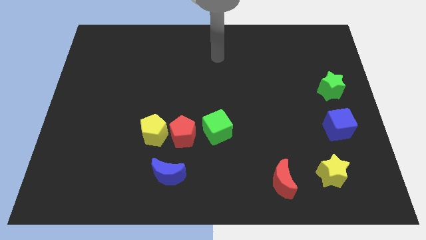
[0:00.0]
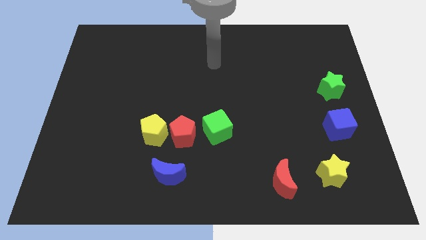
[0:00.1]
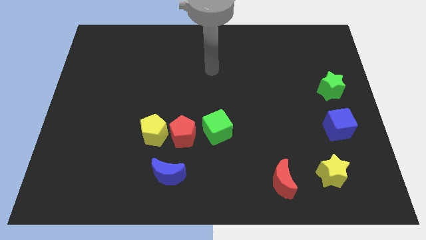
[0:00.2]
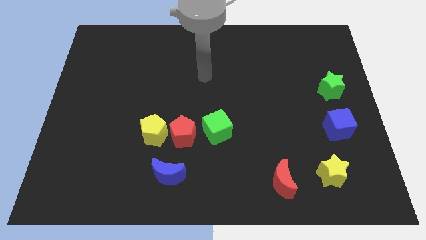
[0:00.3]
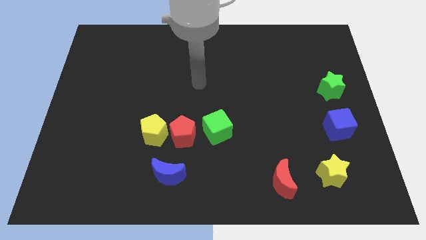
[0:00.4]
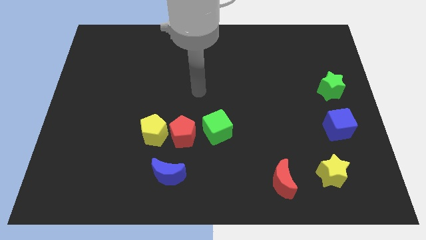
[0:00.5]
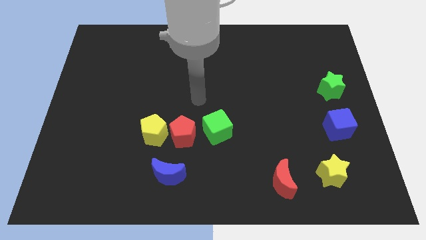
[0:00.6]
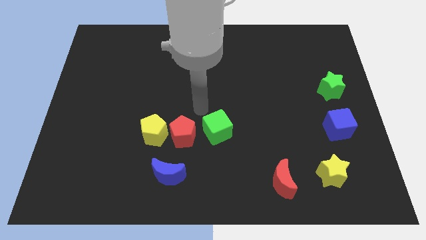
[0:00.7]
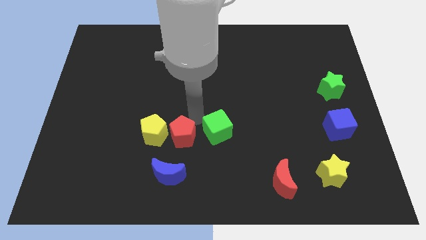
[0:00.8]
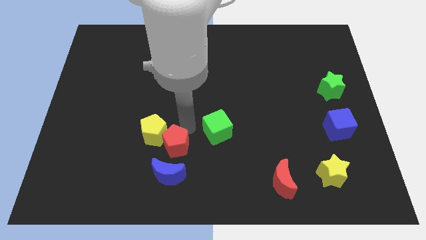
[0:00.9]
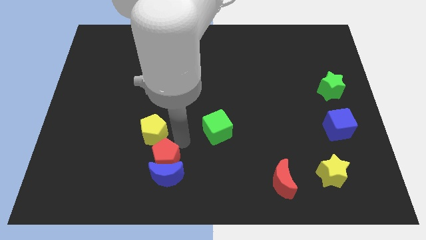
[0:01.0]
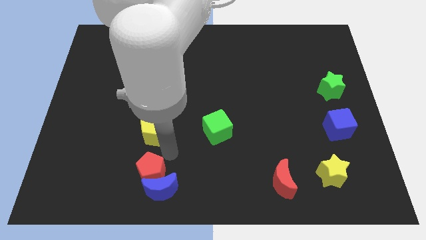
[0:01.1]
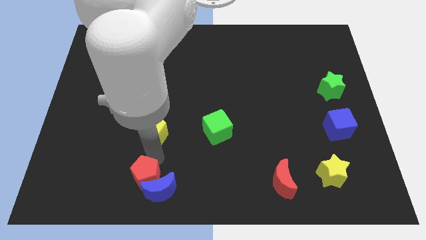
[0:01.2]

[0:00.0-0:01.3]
pull the yellow pentagon apart from the red pentagon

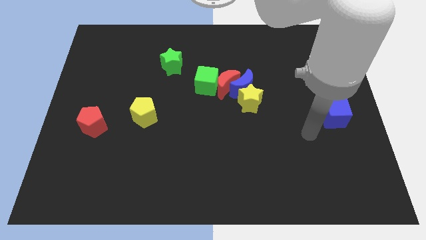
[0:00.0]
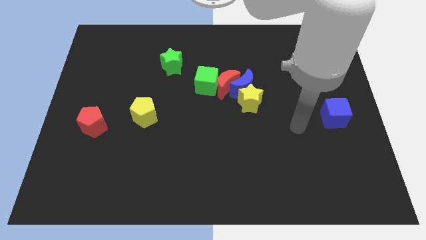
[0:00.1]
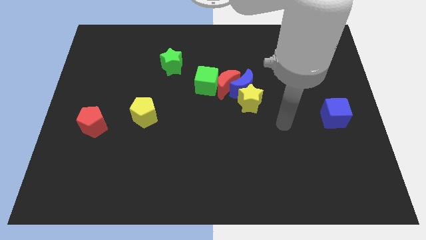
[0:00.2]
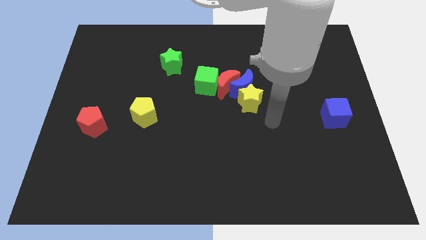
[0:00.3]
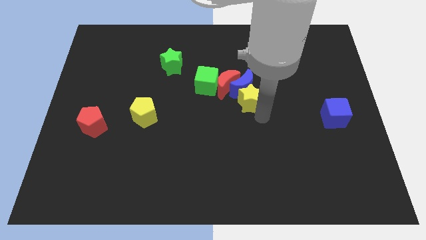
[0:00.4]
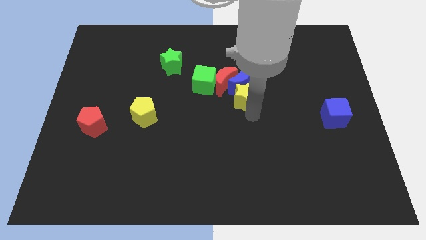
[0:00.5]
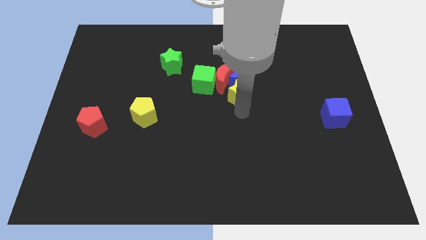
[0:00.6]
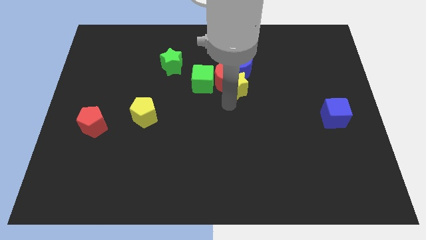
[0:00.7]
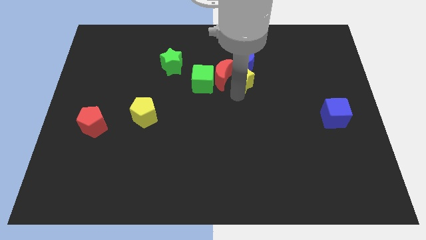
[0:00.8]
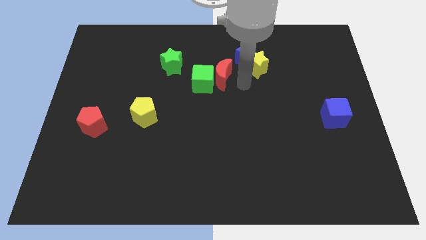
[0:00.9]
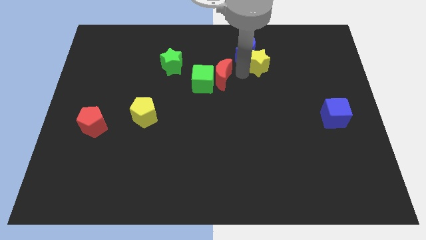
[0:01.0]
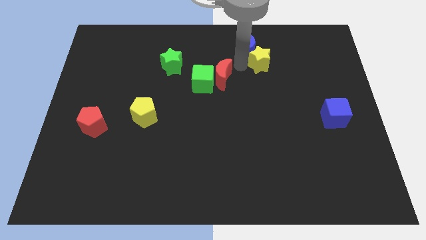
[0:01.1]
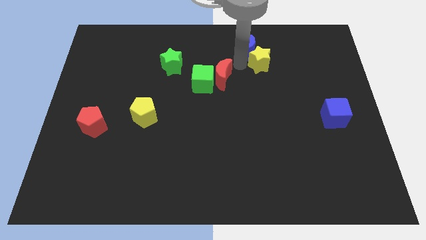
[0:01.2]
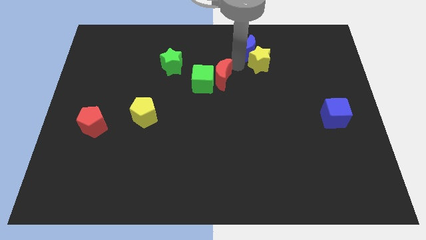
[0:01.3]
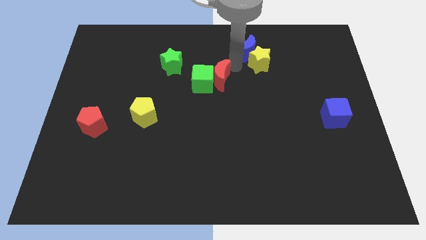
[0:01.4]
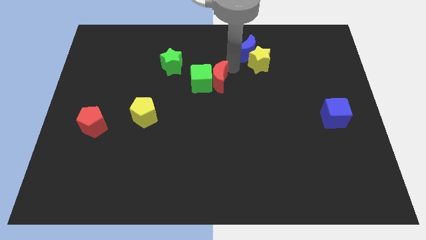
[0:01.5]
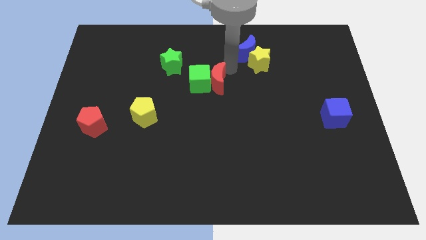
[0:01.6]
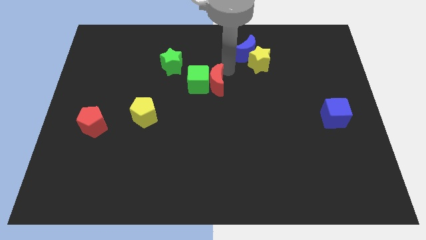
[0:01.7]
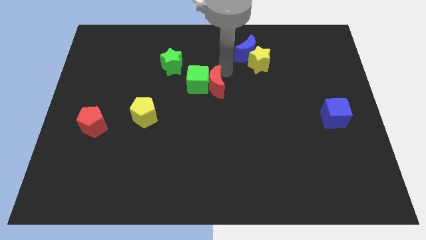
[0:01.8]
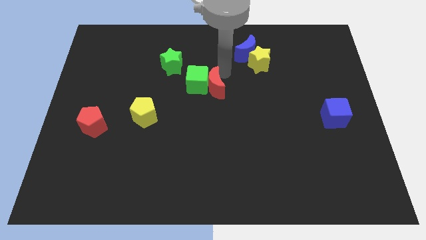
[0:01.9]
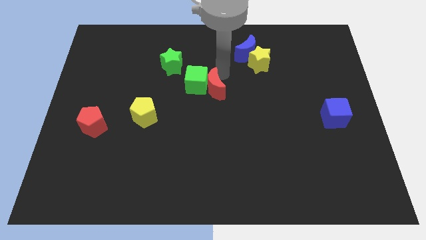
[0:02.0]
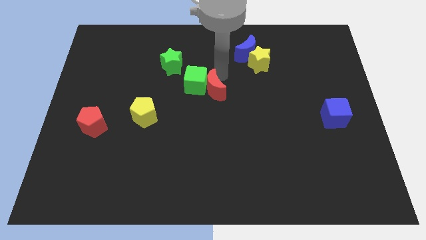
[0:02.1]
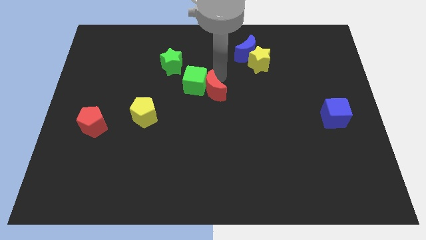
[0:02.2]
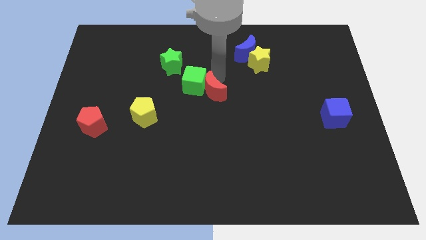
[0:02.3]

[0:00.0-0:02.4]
pull the red moon apart from the blue moon, green cube, and yellow star

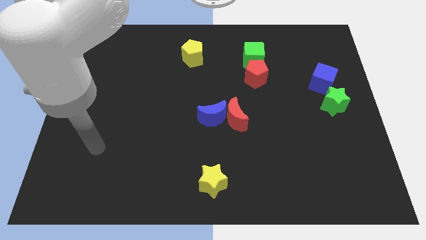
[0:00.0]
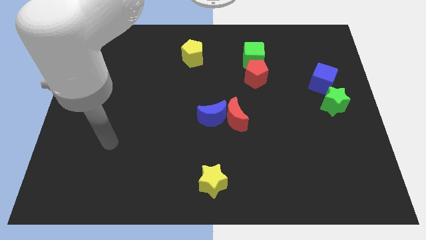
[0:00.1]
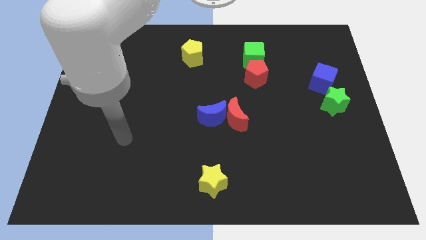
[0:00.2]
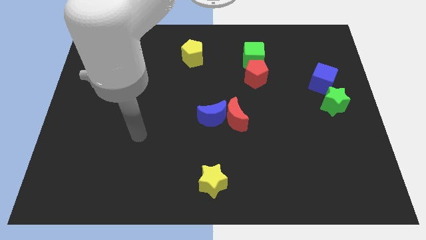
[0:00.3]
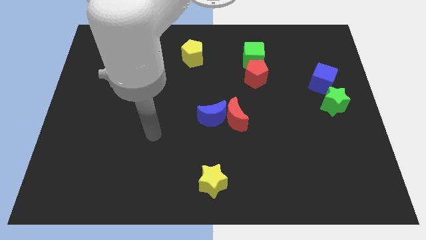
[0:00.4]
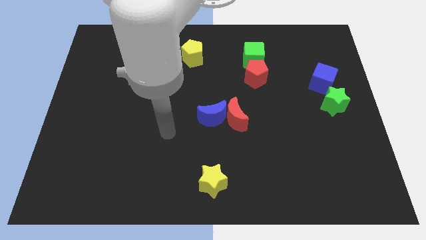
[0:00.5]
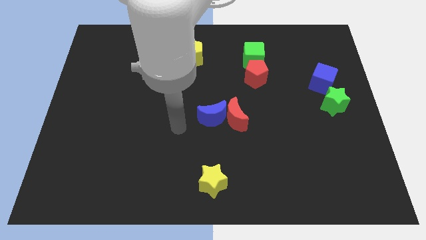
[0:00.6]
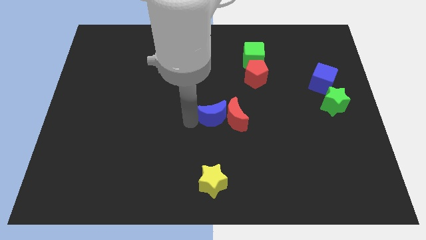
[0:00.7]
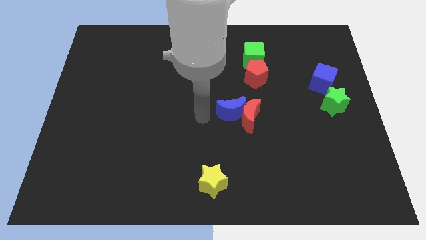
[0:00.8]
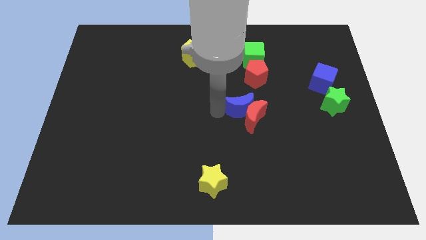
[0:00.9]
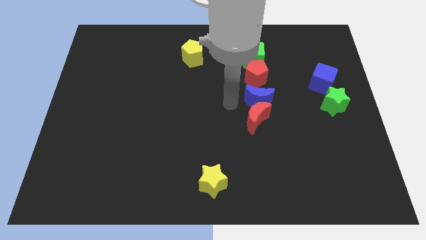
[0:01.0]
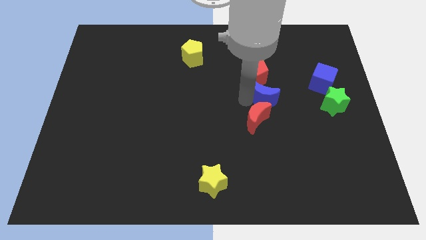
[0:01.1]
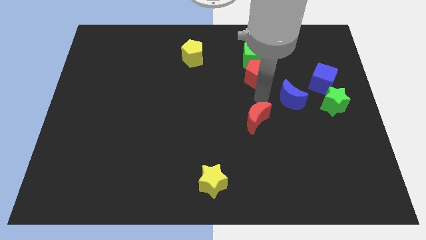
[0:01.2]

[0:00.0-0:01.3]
separate the red moon from the blue moon

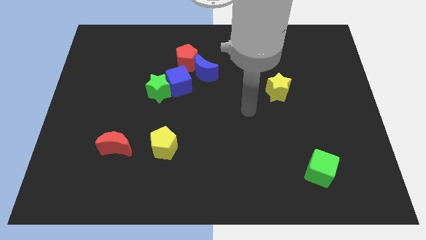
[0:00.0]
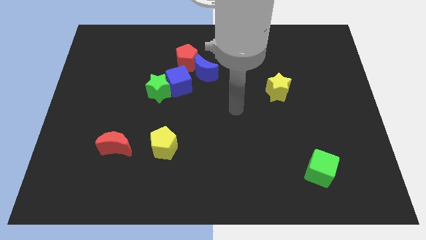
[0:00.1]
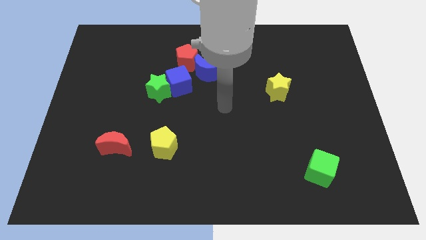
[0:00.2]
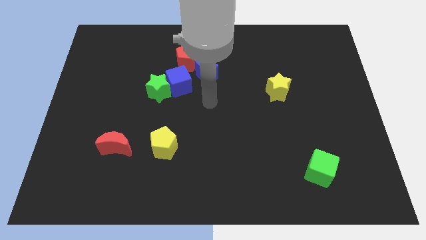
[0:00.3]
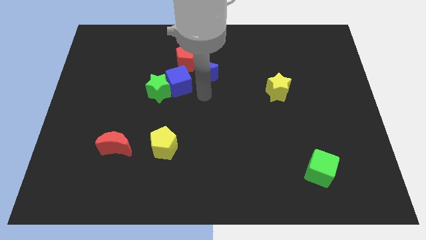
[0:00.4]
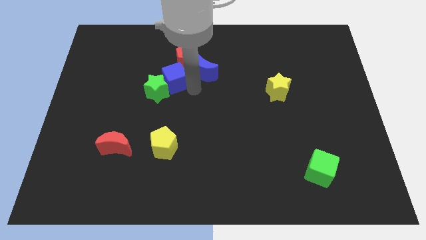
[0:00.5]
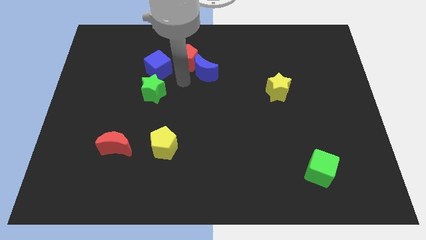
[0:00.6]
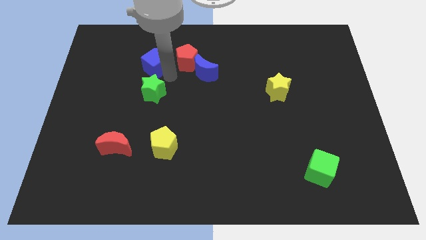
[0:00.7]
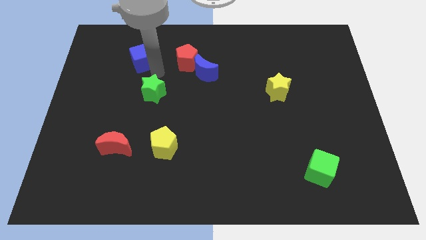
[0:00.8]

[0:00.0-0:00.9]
pull the green star apart from the blue cube

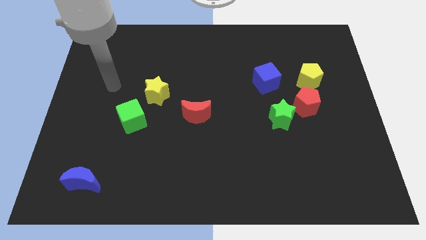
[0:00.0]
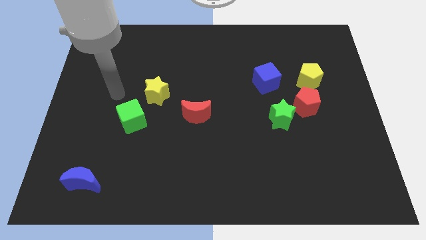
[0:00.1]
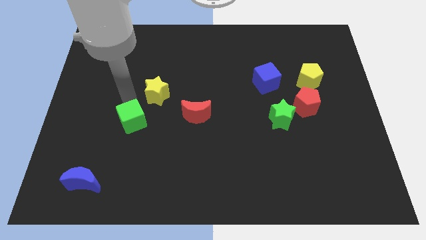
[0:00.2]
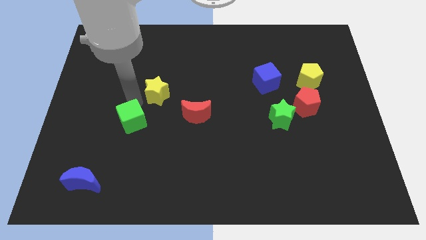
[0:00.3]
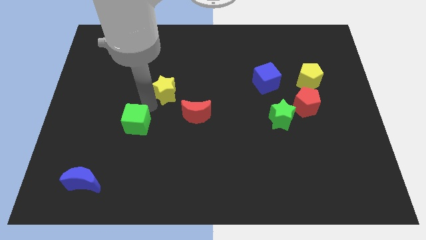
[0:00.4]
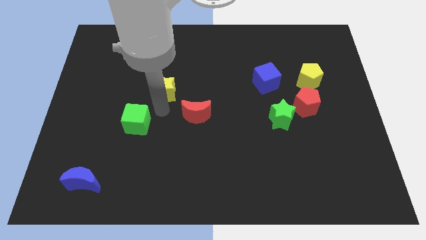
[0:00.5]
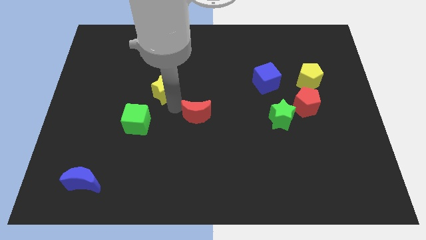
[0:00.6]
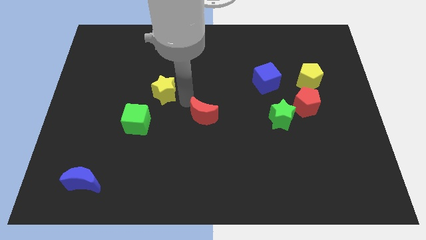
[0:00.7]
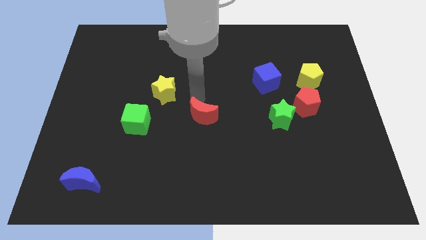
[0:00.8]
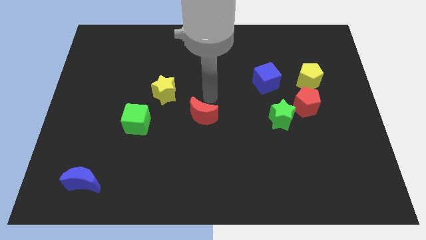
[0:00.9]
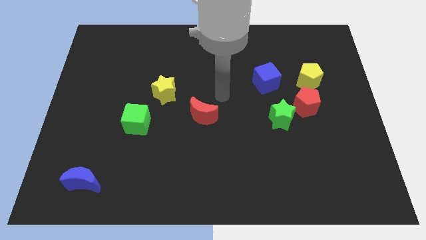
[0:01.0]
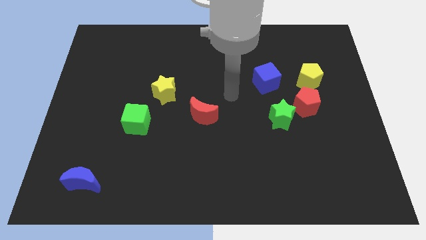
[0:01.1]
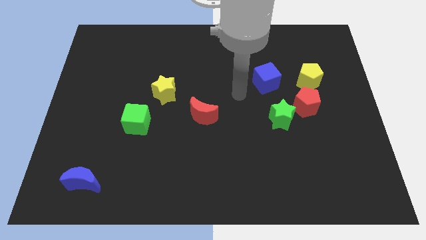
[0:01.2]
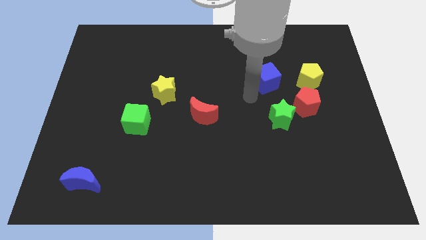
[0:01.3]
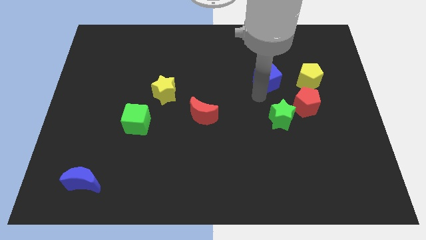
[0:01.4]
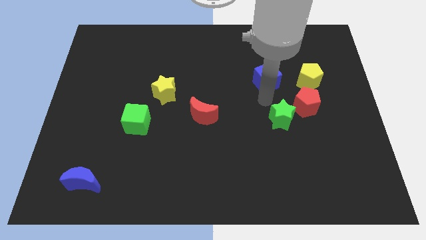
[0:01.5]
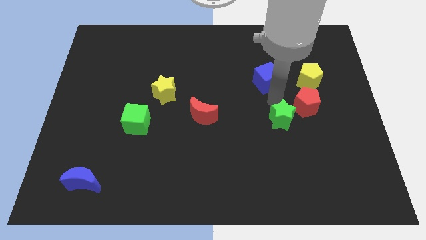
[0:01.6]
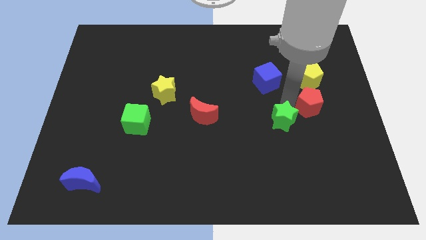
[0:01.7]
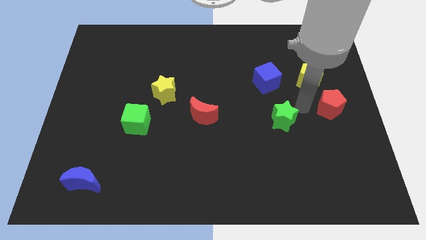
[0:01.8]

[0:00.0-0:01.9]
pull the green star apart from the red pentagon

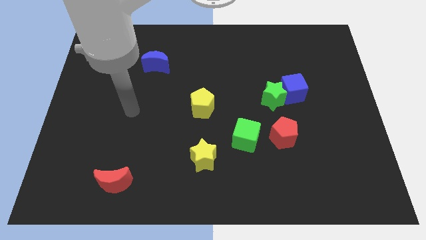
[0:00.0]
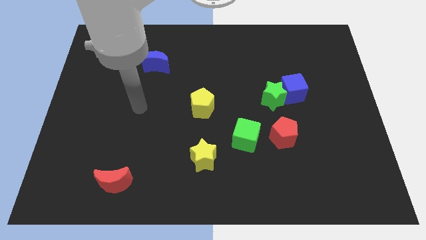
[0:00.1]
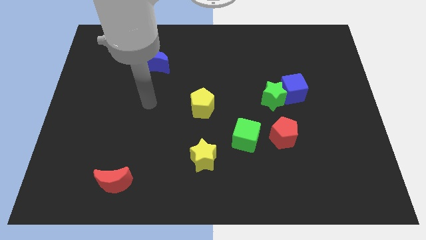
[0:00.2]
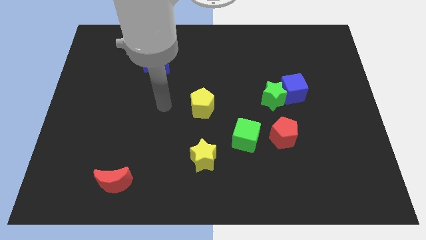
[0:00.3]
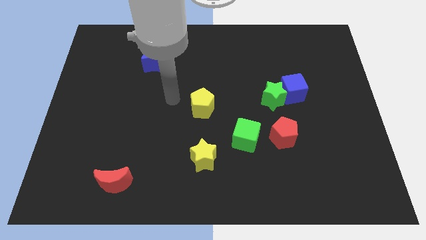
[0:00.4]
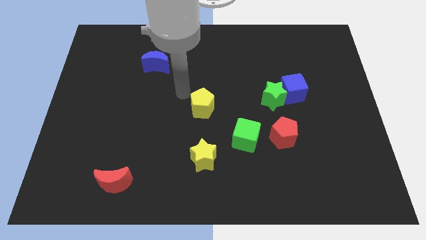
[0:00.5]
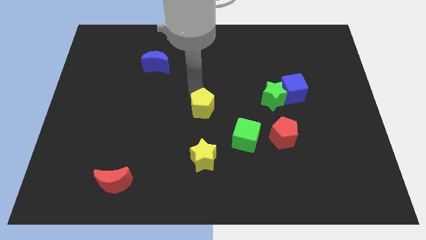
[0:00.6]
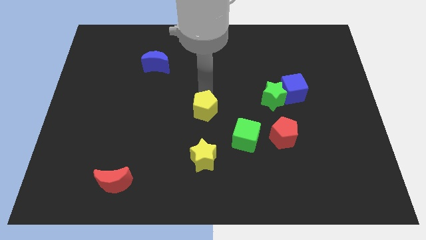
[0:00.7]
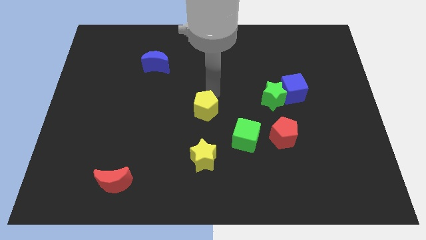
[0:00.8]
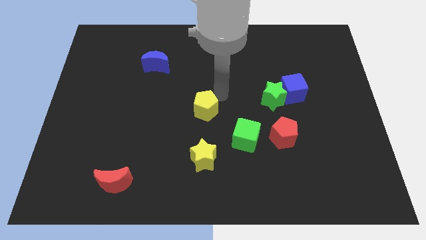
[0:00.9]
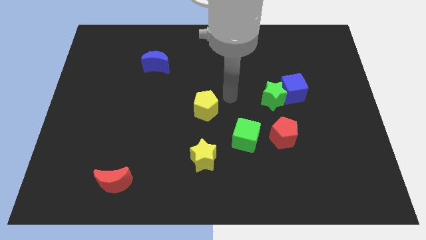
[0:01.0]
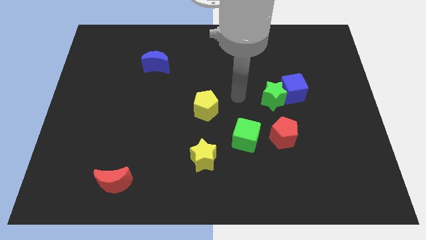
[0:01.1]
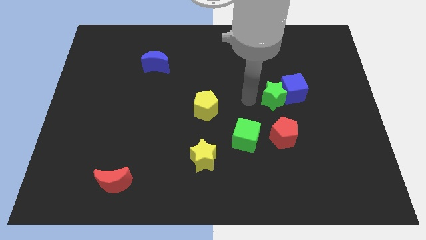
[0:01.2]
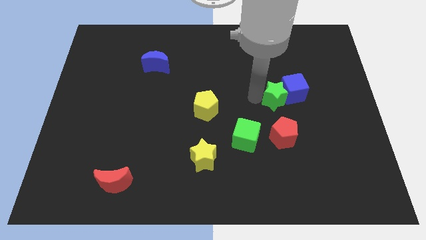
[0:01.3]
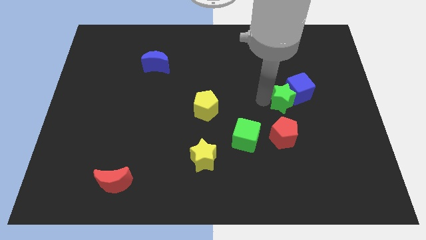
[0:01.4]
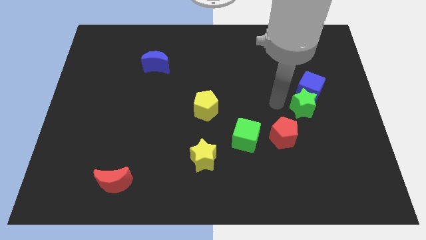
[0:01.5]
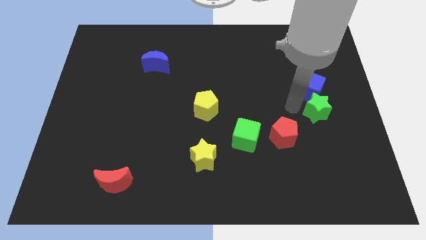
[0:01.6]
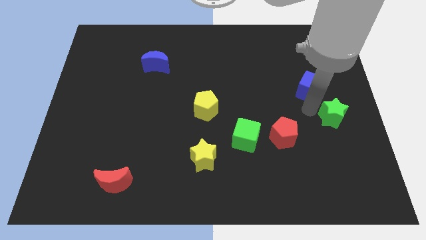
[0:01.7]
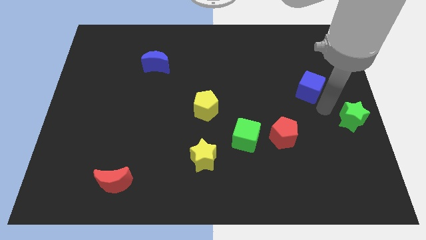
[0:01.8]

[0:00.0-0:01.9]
move the blue cube away from the green star
